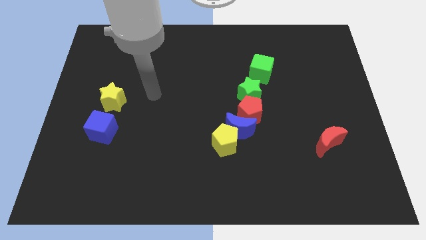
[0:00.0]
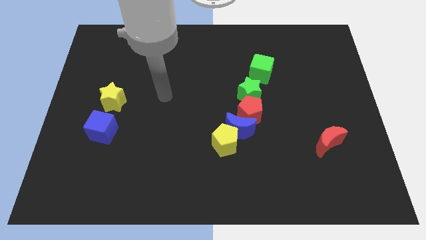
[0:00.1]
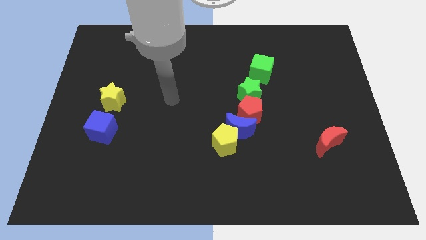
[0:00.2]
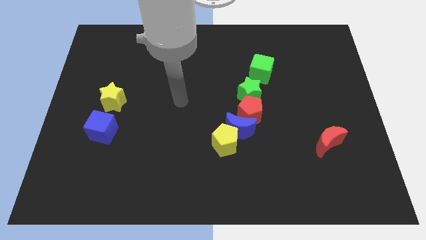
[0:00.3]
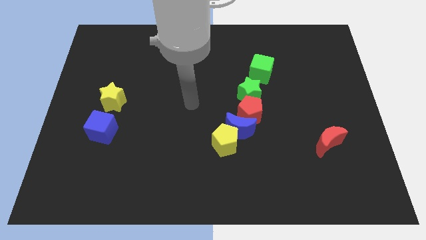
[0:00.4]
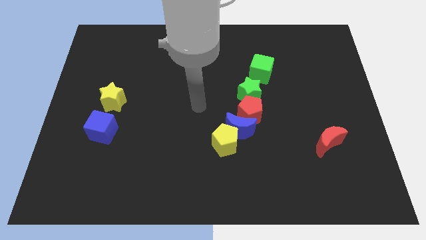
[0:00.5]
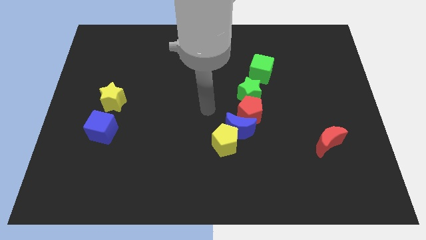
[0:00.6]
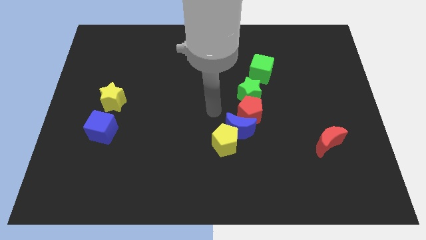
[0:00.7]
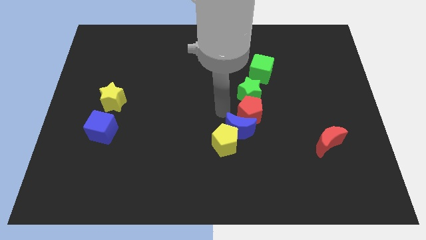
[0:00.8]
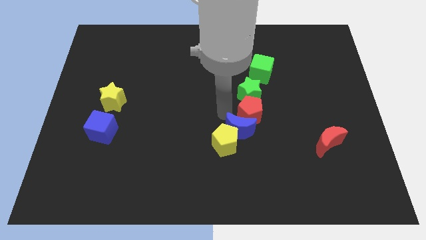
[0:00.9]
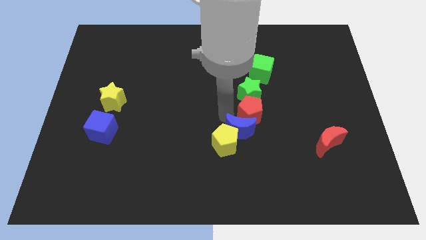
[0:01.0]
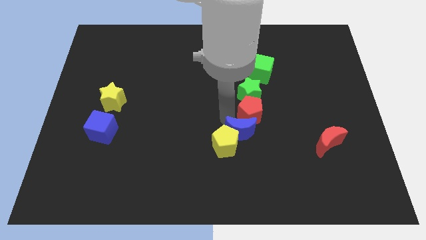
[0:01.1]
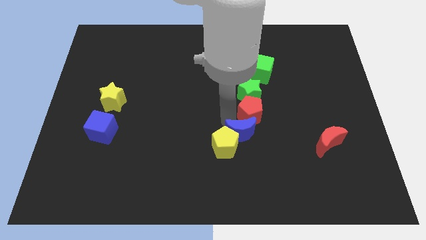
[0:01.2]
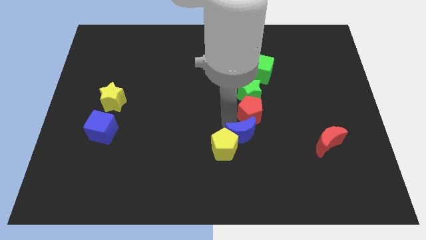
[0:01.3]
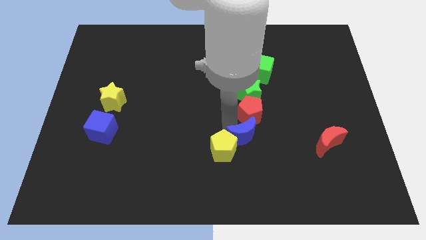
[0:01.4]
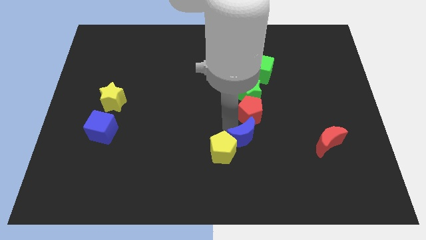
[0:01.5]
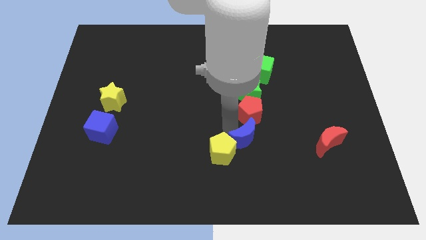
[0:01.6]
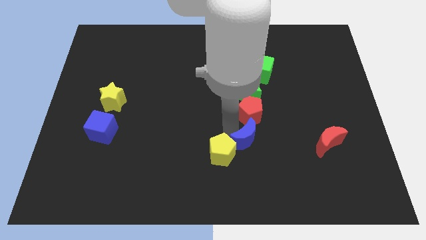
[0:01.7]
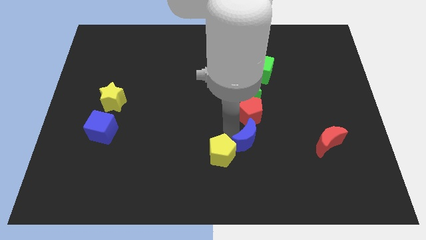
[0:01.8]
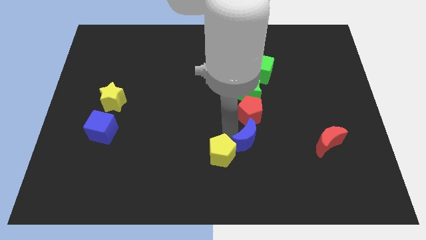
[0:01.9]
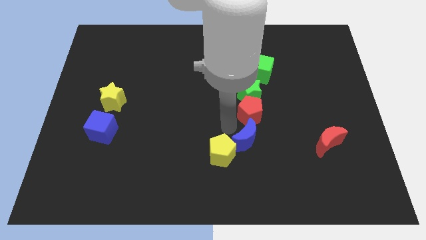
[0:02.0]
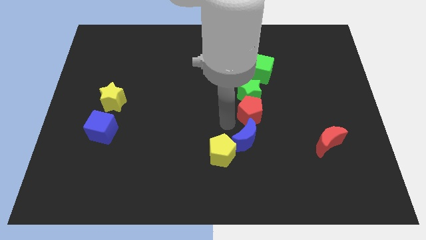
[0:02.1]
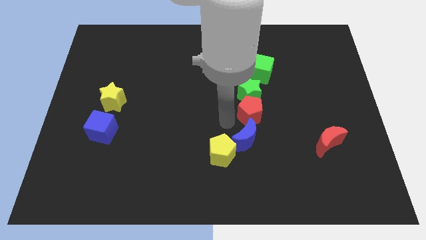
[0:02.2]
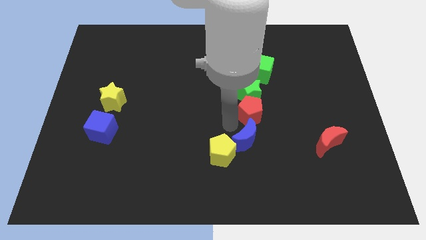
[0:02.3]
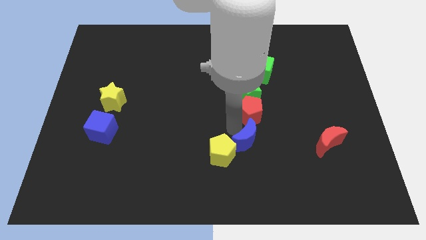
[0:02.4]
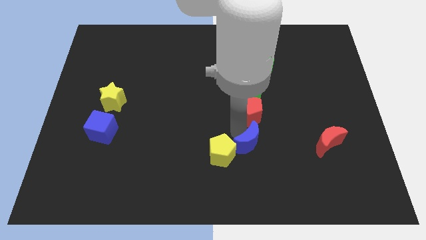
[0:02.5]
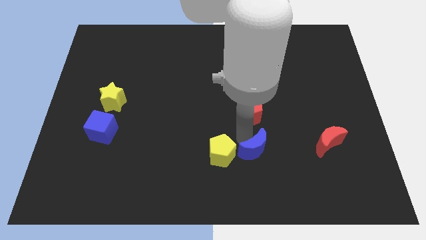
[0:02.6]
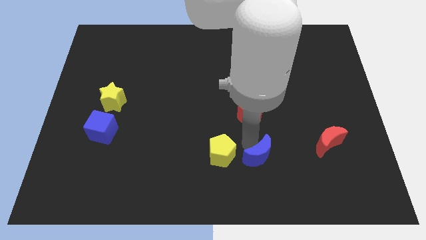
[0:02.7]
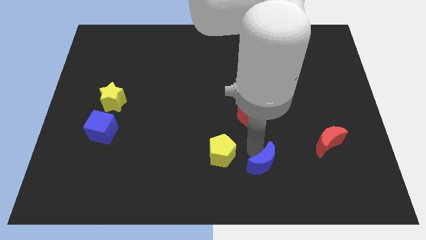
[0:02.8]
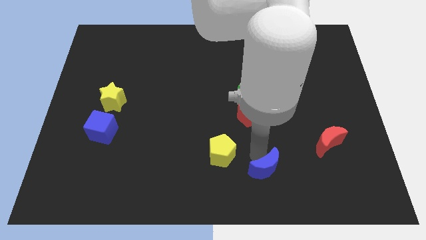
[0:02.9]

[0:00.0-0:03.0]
separate the blue moon from the yellow pentagon and red pentagon

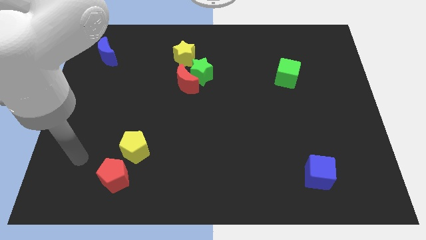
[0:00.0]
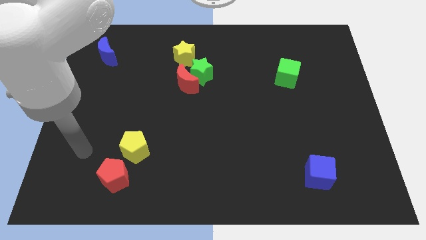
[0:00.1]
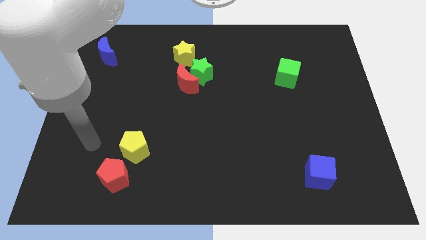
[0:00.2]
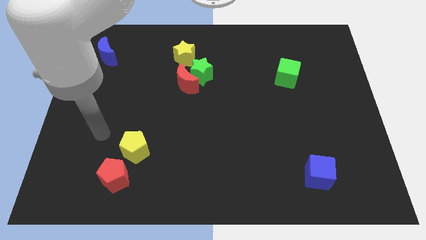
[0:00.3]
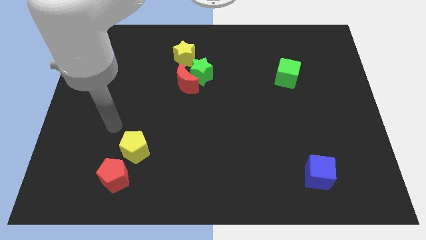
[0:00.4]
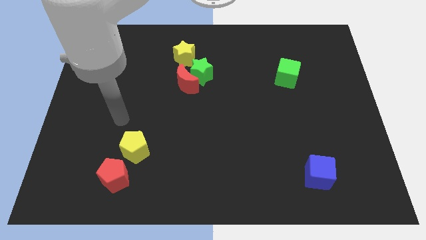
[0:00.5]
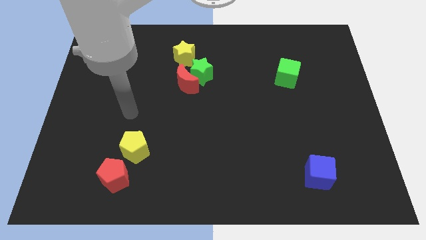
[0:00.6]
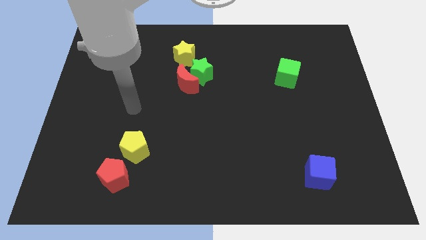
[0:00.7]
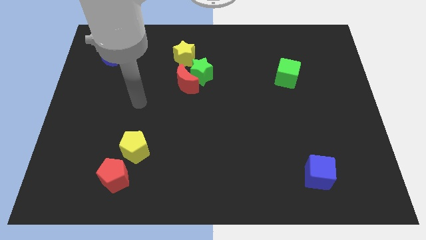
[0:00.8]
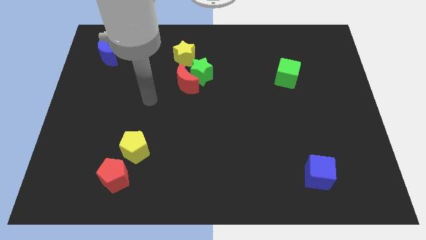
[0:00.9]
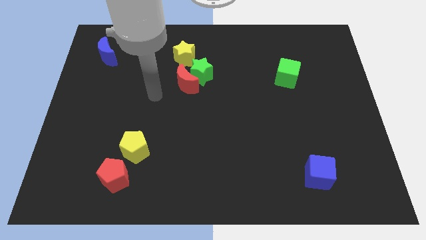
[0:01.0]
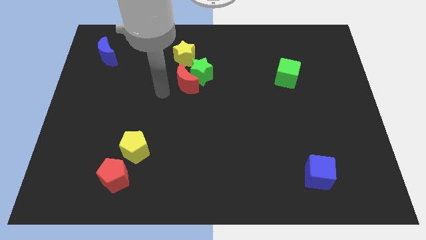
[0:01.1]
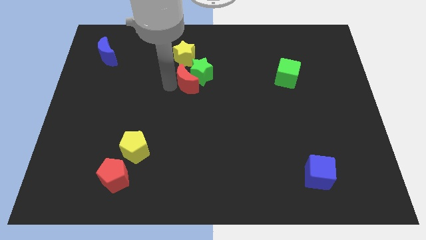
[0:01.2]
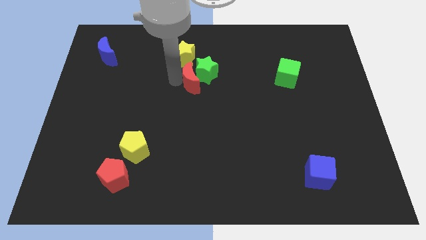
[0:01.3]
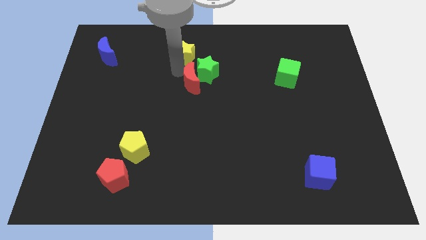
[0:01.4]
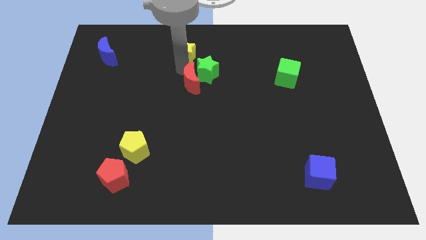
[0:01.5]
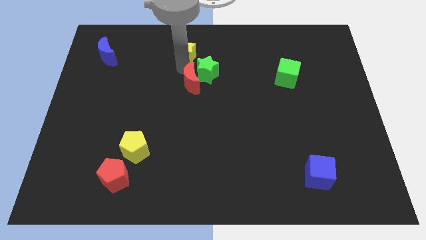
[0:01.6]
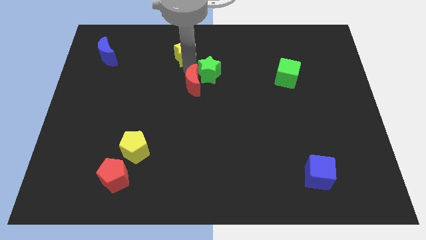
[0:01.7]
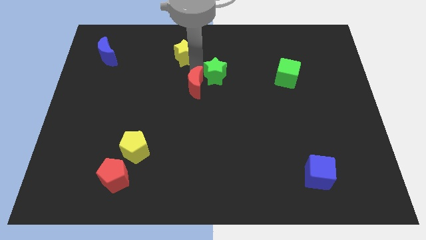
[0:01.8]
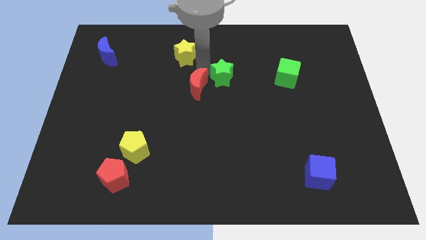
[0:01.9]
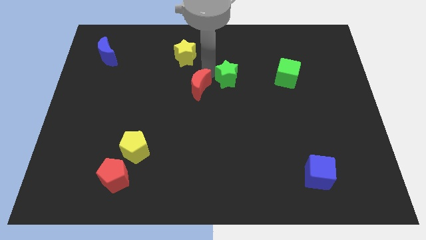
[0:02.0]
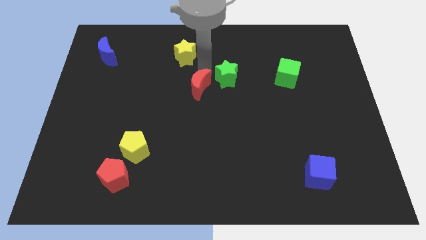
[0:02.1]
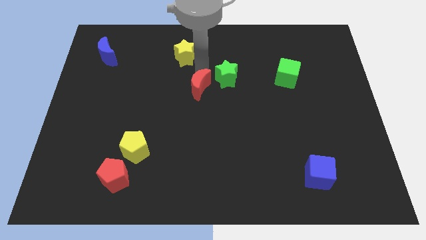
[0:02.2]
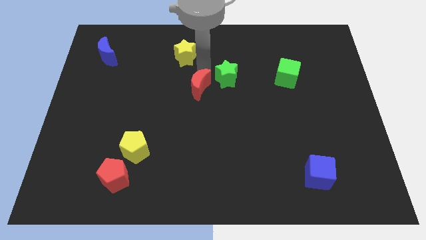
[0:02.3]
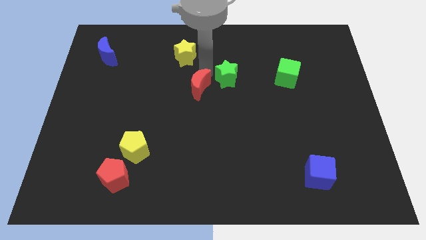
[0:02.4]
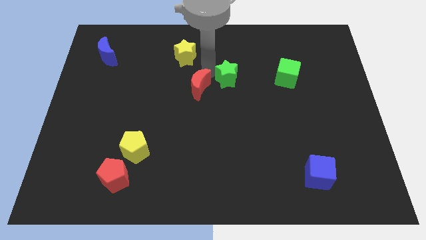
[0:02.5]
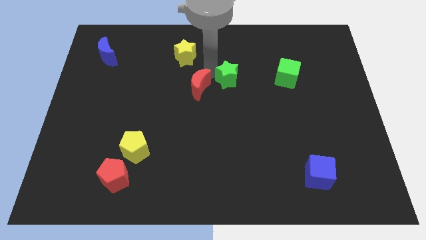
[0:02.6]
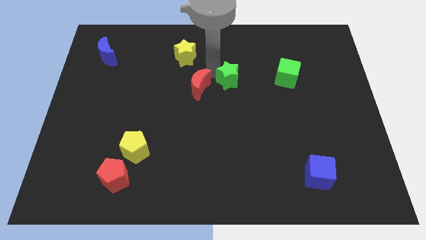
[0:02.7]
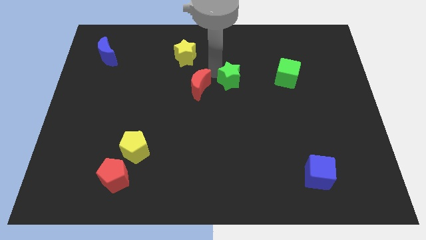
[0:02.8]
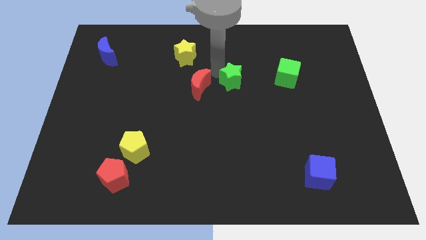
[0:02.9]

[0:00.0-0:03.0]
separate the green star from the red moon and yellow star

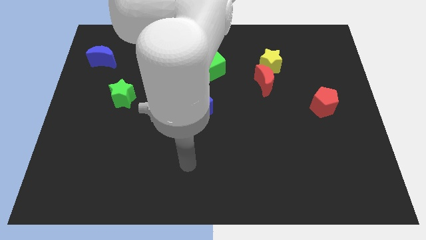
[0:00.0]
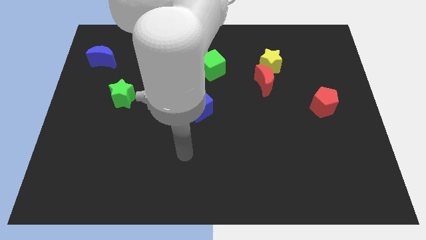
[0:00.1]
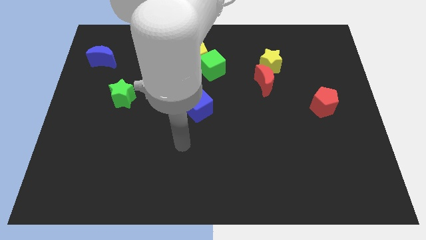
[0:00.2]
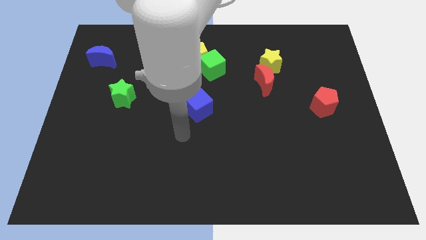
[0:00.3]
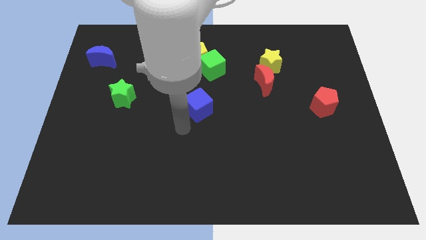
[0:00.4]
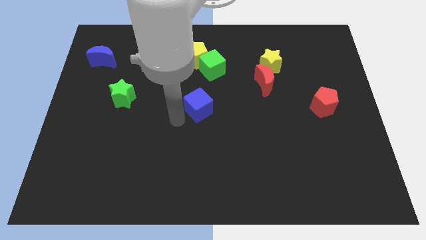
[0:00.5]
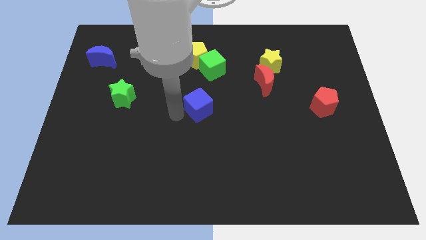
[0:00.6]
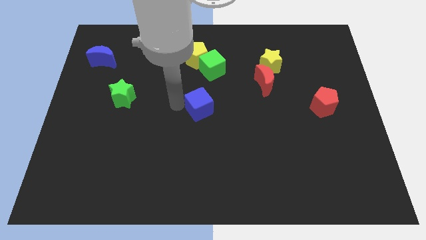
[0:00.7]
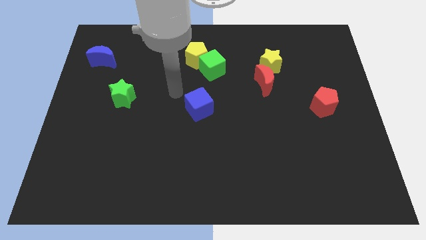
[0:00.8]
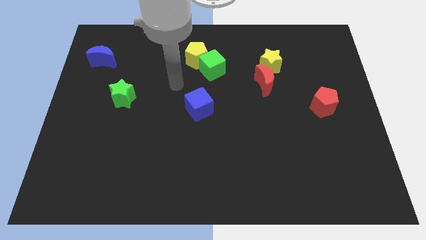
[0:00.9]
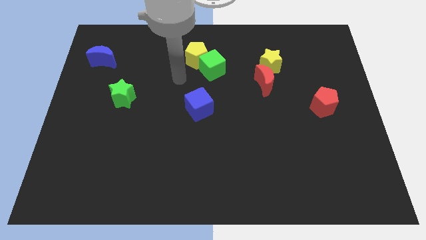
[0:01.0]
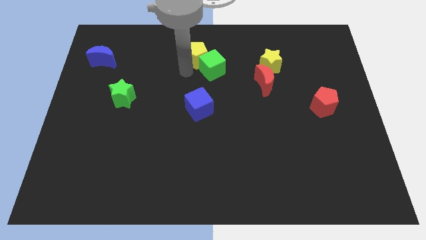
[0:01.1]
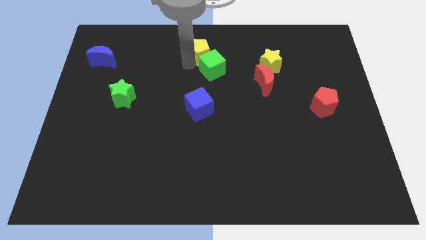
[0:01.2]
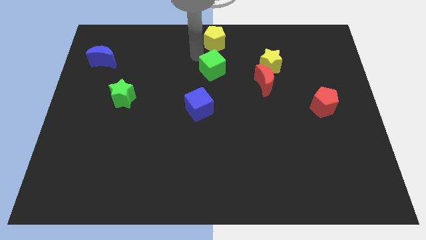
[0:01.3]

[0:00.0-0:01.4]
separate the green cube from the yellow pentagon

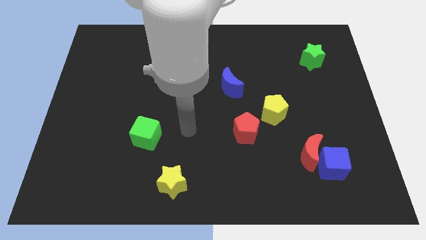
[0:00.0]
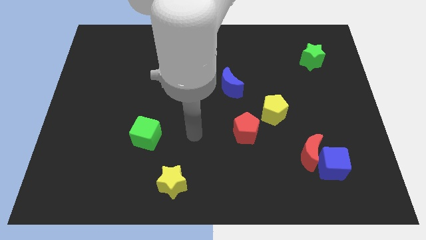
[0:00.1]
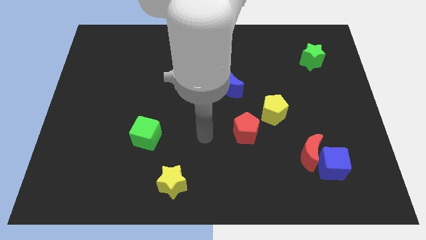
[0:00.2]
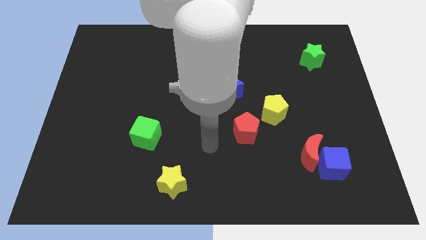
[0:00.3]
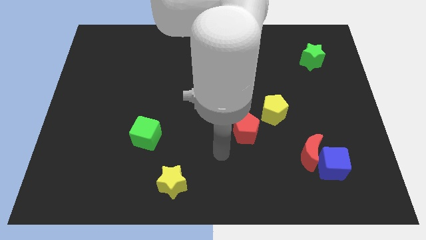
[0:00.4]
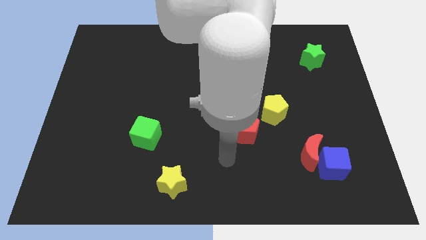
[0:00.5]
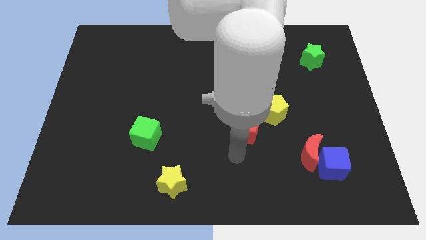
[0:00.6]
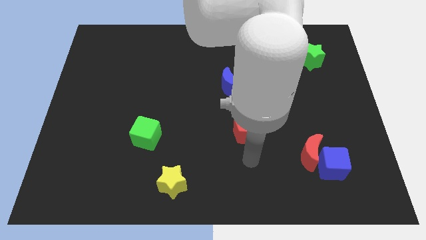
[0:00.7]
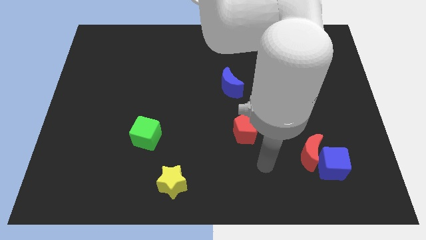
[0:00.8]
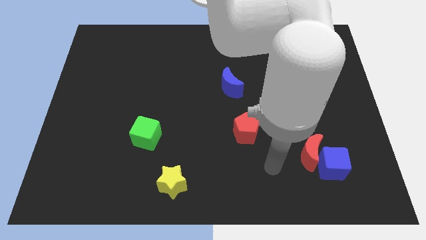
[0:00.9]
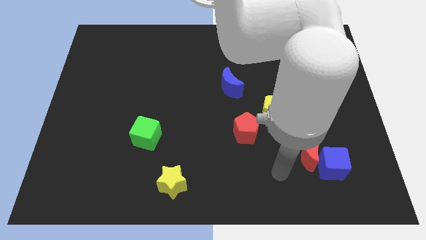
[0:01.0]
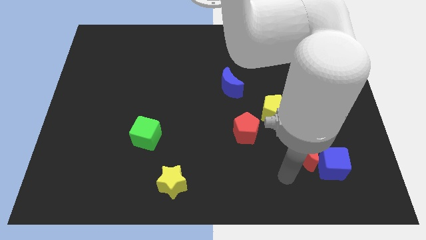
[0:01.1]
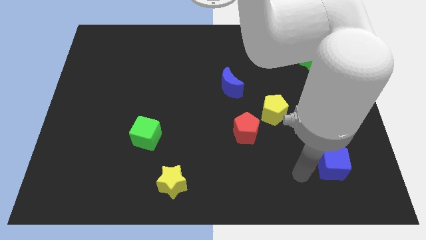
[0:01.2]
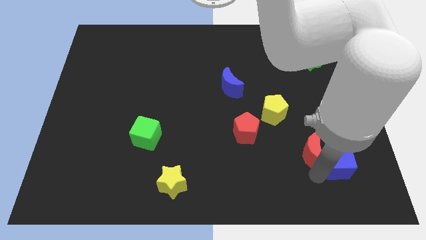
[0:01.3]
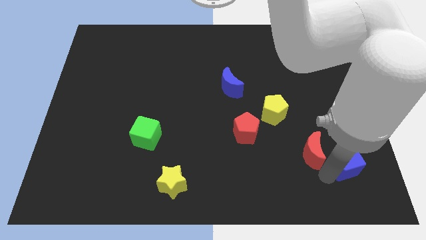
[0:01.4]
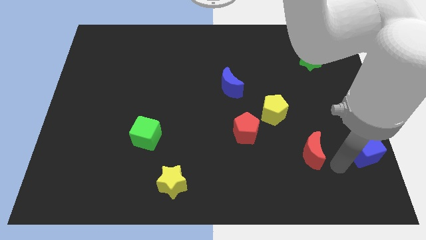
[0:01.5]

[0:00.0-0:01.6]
move the red moon away from the blue cube

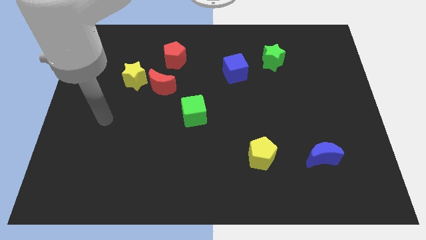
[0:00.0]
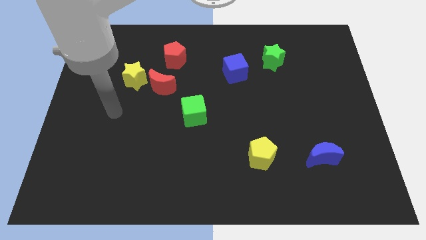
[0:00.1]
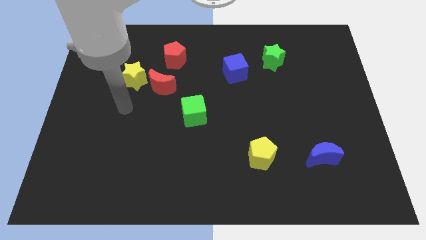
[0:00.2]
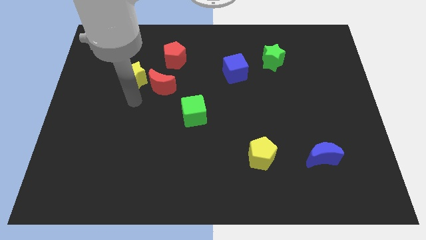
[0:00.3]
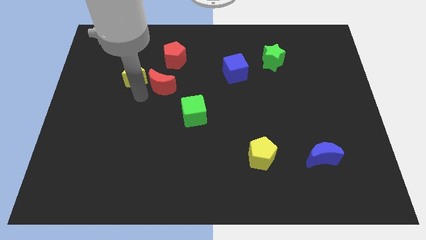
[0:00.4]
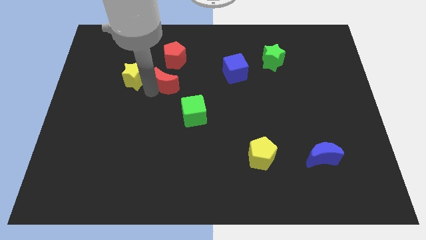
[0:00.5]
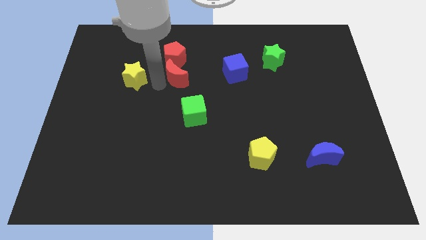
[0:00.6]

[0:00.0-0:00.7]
pull the yellow star apart from the red moon
